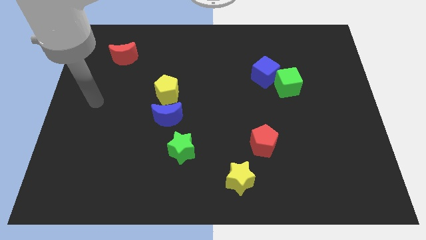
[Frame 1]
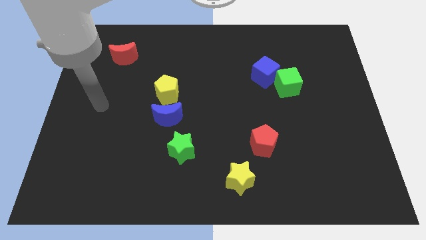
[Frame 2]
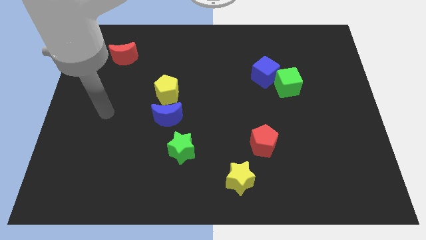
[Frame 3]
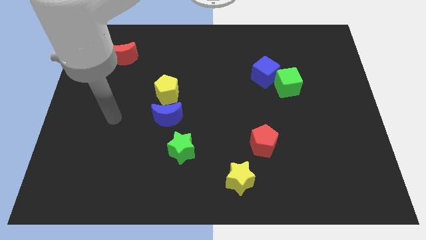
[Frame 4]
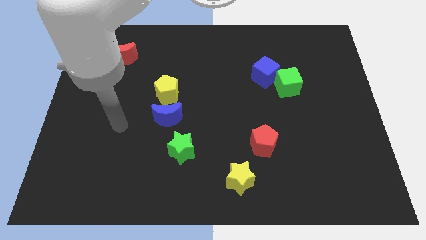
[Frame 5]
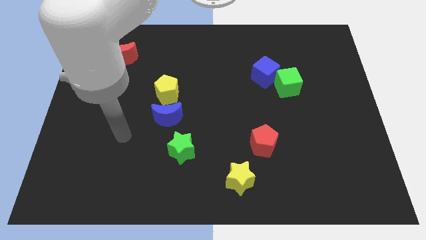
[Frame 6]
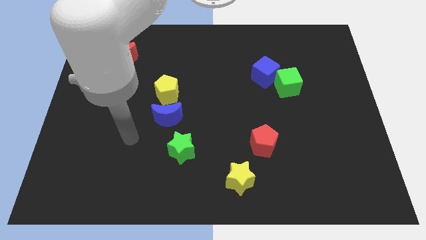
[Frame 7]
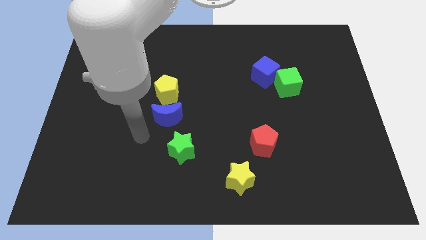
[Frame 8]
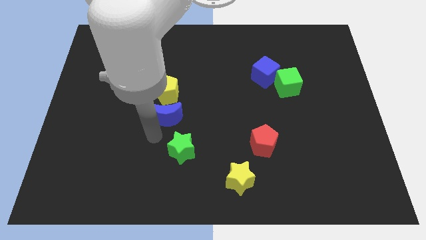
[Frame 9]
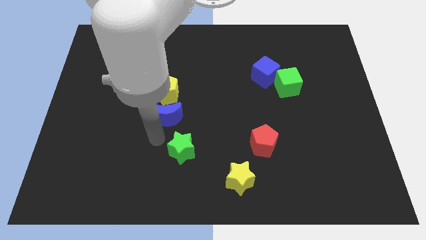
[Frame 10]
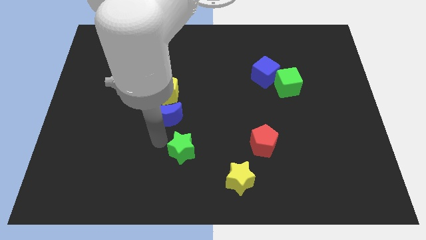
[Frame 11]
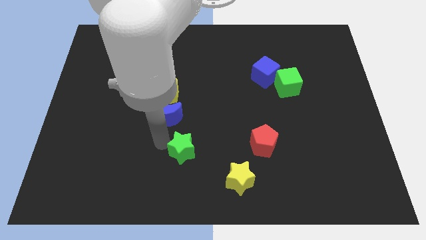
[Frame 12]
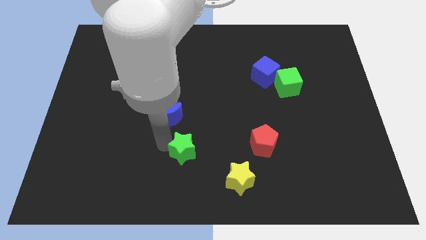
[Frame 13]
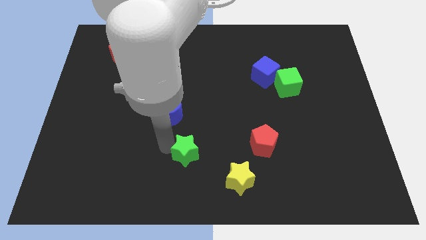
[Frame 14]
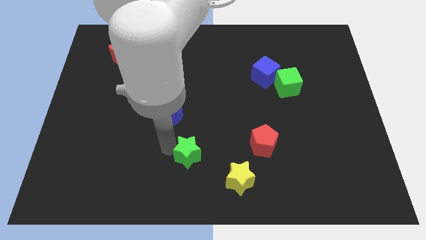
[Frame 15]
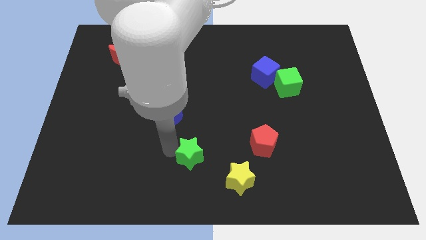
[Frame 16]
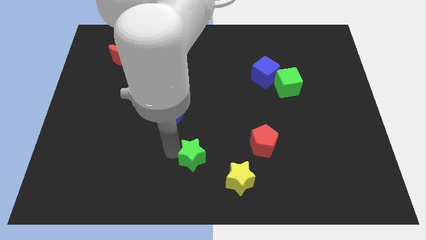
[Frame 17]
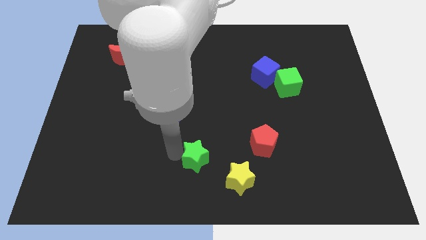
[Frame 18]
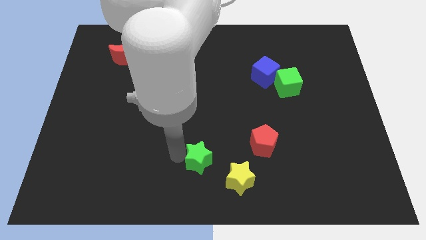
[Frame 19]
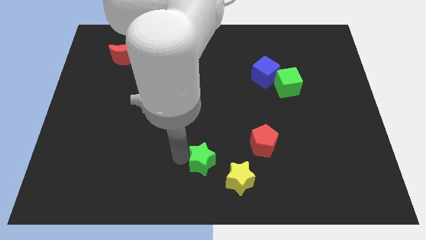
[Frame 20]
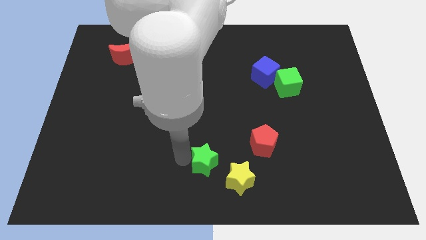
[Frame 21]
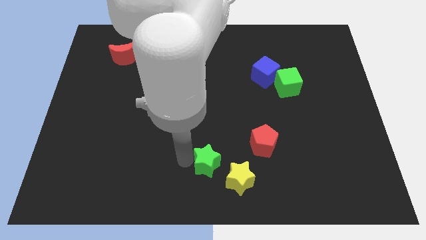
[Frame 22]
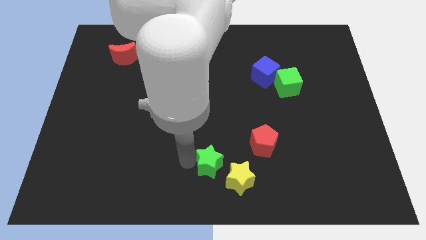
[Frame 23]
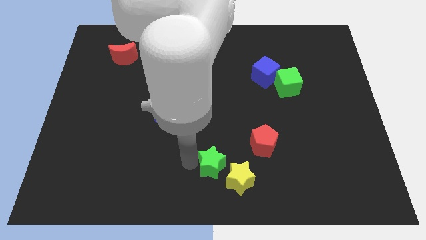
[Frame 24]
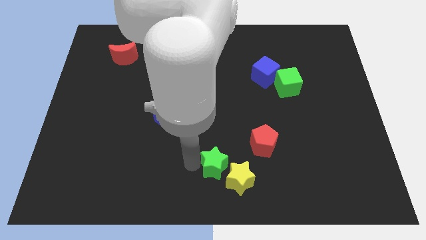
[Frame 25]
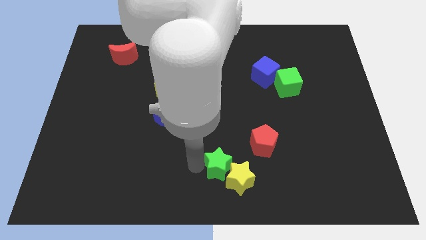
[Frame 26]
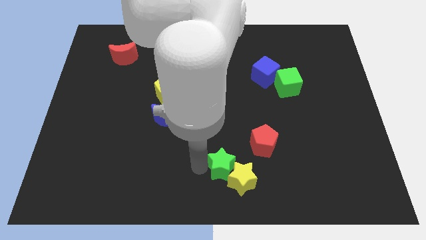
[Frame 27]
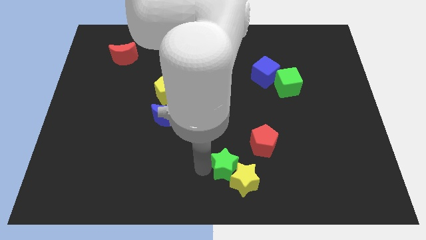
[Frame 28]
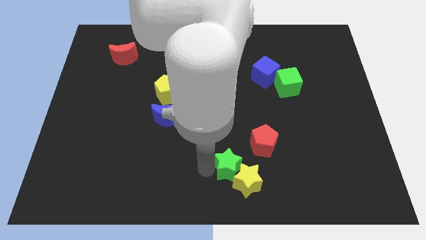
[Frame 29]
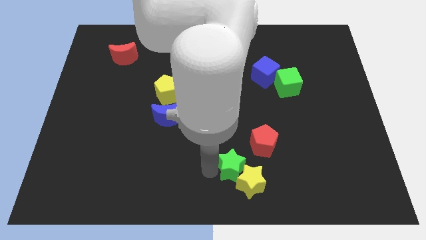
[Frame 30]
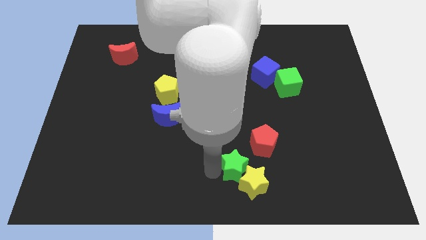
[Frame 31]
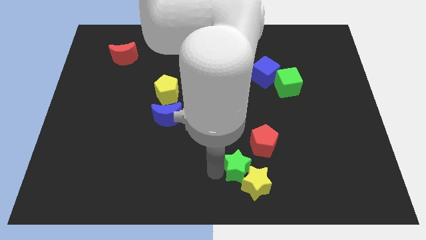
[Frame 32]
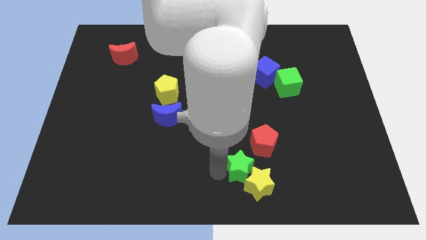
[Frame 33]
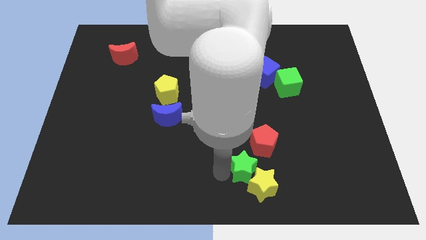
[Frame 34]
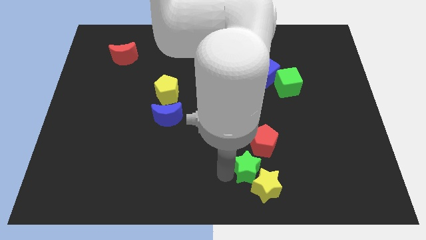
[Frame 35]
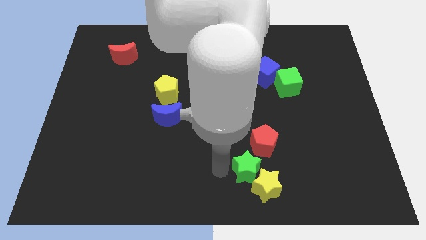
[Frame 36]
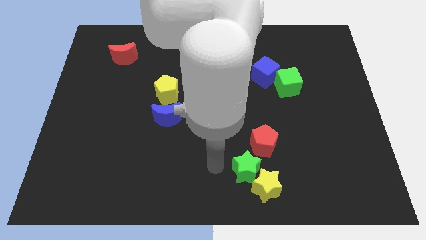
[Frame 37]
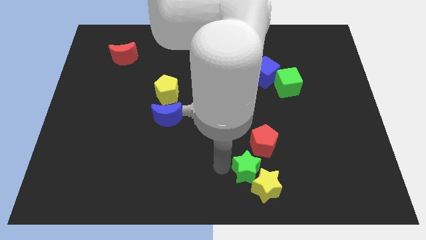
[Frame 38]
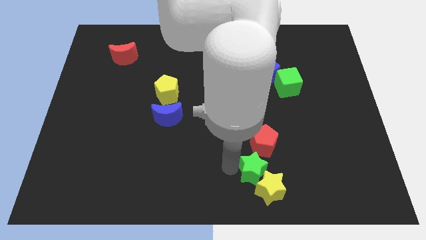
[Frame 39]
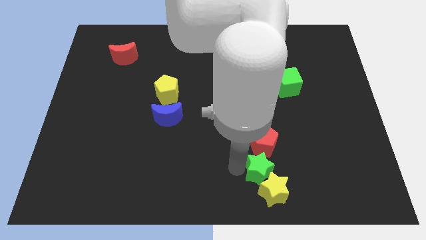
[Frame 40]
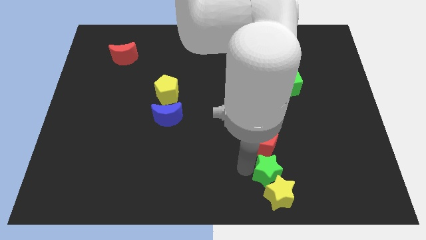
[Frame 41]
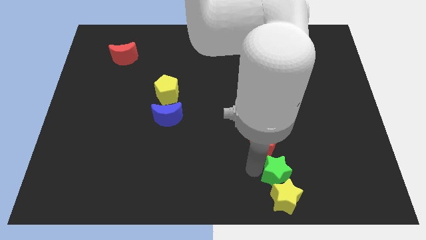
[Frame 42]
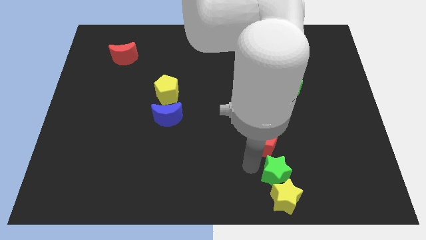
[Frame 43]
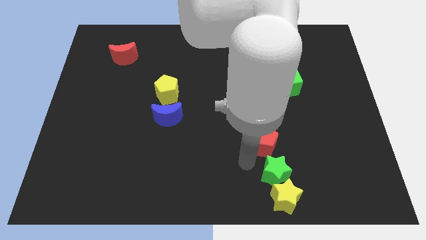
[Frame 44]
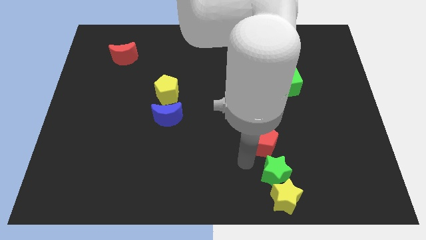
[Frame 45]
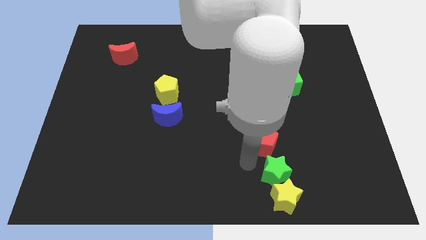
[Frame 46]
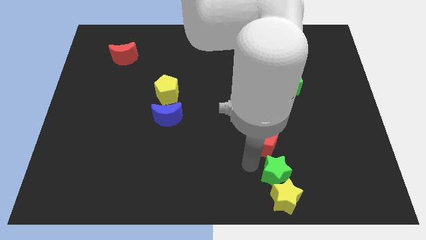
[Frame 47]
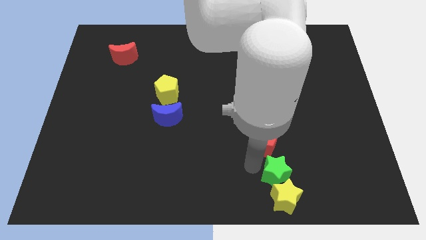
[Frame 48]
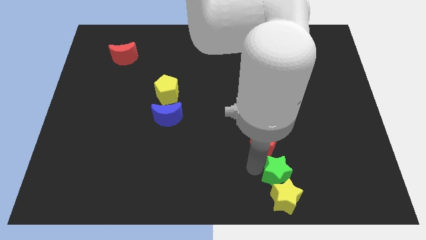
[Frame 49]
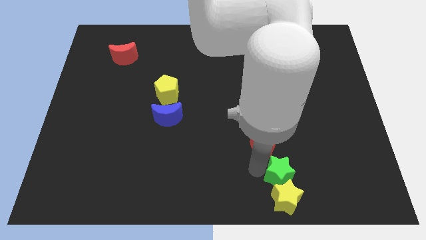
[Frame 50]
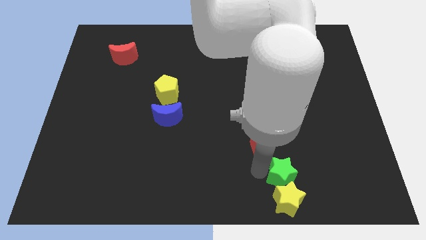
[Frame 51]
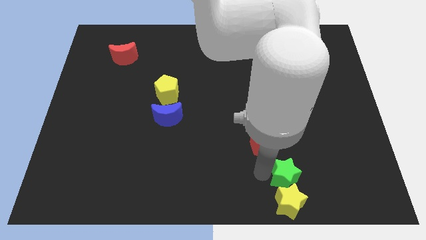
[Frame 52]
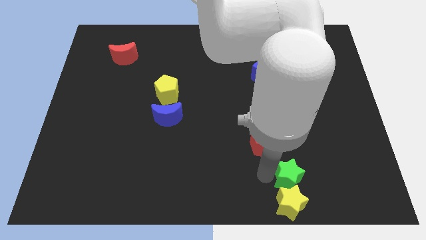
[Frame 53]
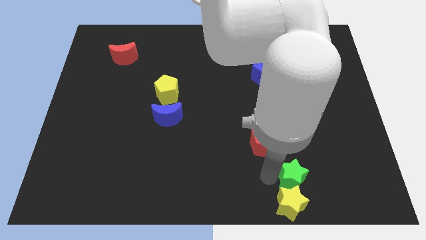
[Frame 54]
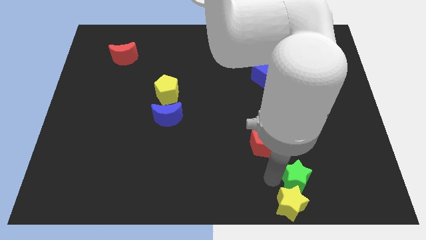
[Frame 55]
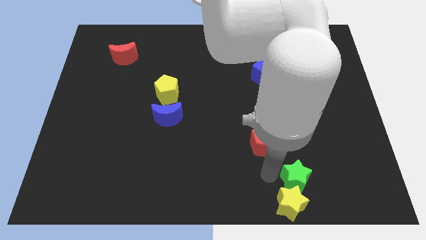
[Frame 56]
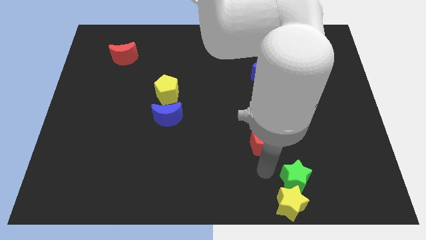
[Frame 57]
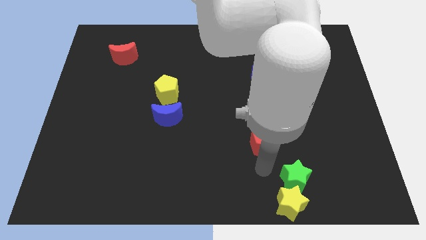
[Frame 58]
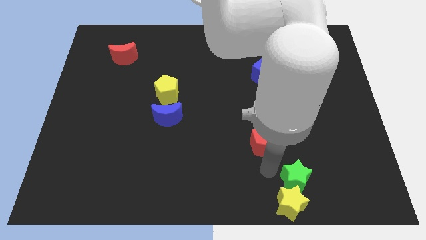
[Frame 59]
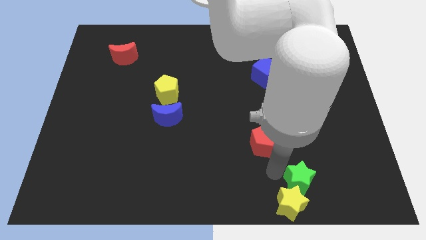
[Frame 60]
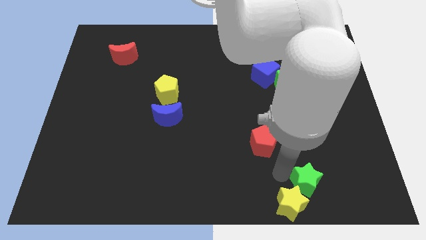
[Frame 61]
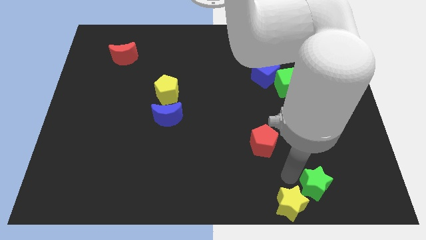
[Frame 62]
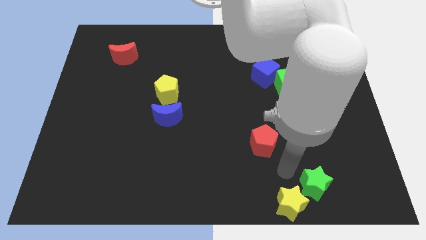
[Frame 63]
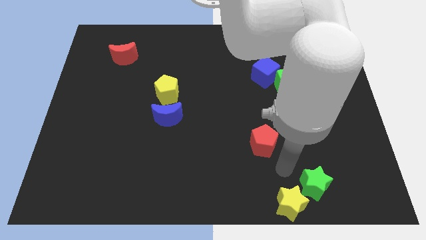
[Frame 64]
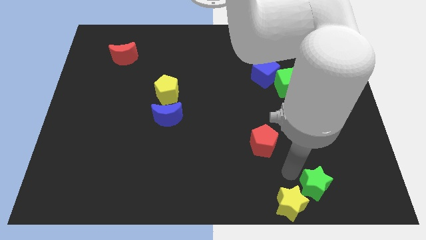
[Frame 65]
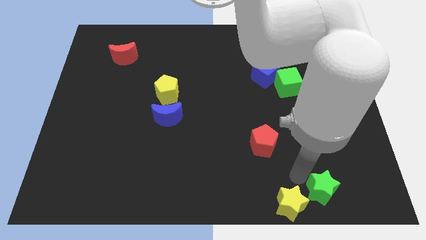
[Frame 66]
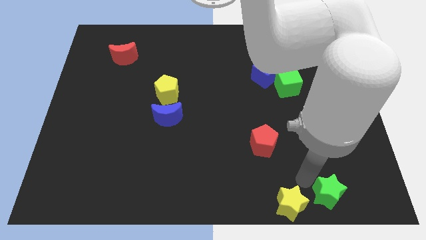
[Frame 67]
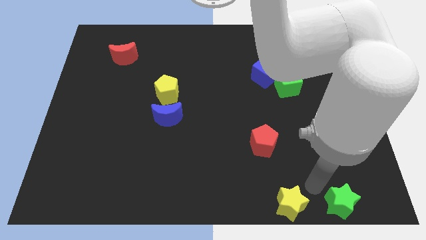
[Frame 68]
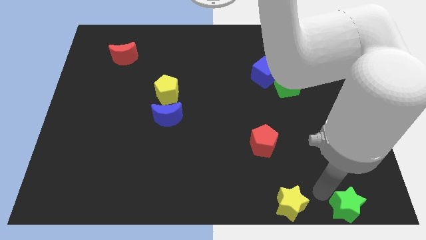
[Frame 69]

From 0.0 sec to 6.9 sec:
slide the green star to the bottom right corner
